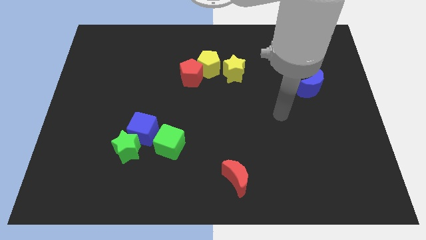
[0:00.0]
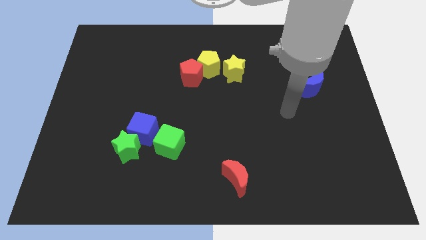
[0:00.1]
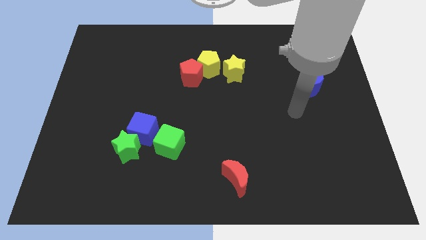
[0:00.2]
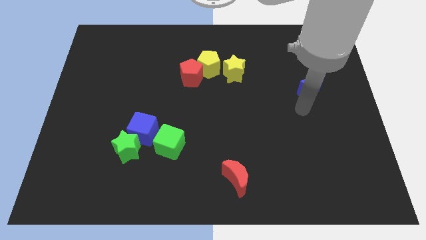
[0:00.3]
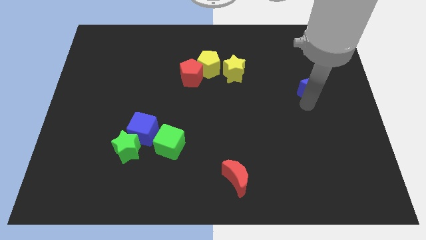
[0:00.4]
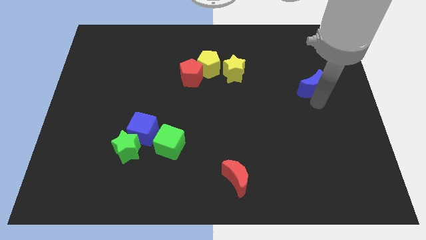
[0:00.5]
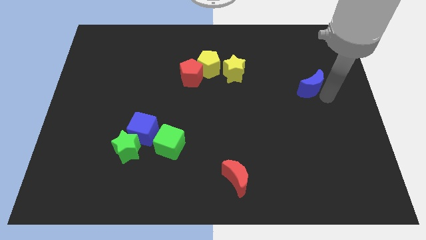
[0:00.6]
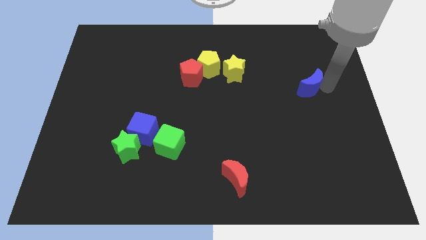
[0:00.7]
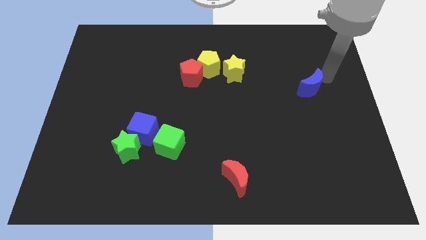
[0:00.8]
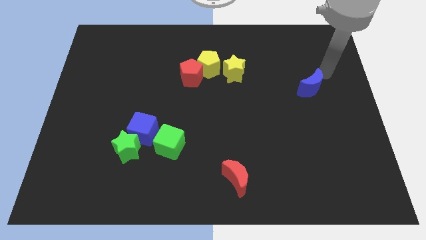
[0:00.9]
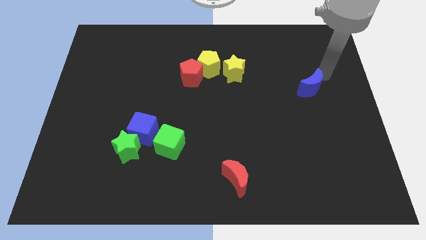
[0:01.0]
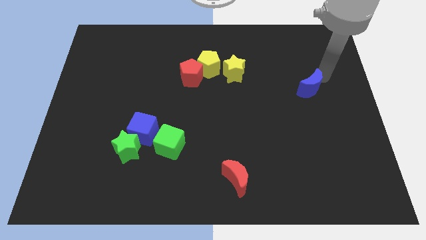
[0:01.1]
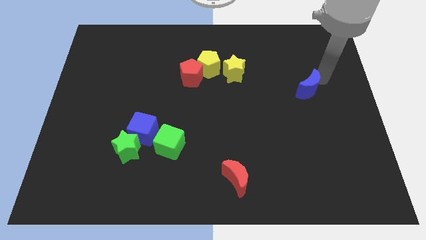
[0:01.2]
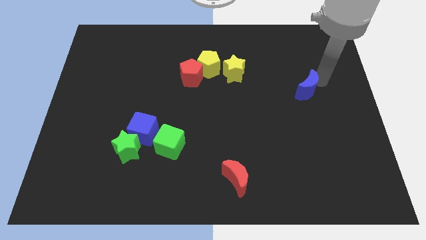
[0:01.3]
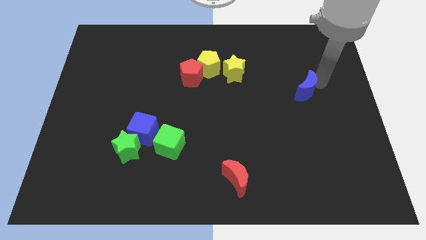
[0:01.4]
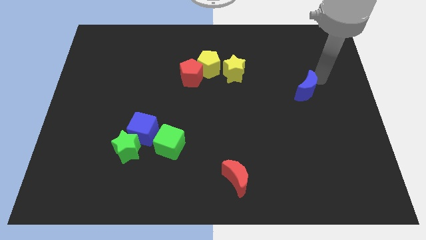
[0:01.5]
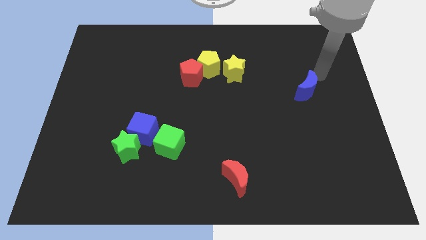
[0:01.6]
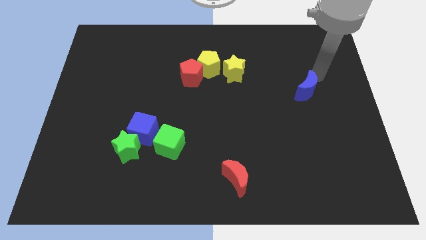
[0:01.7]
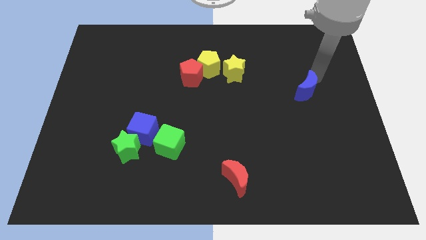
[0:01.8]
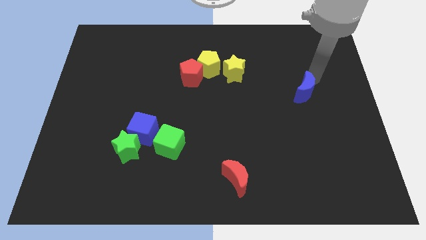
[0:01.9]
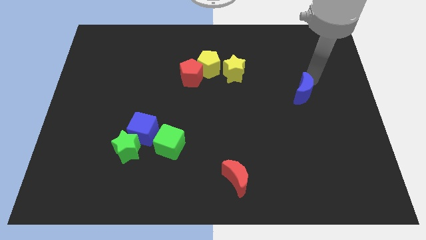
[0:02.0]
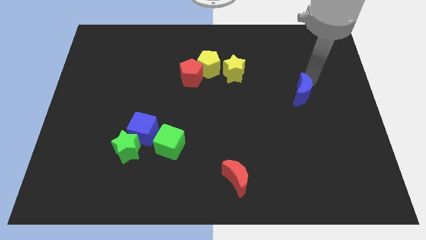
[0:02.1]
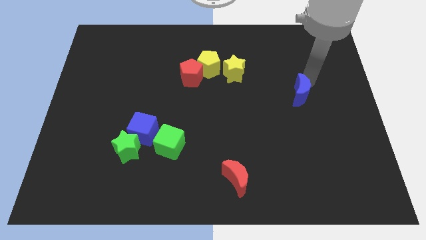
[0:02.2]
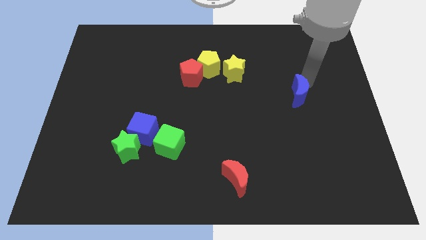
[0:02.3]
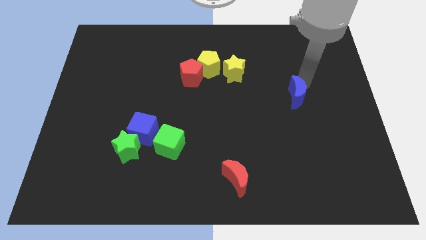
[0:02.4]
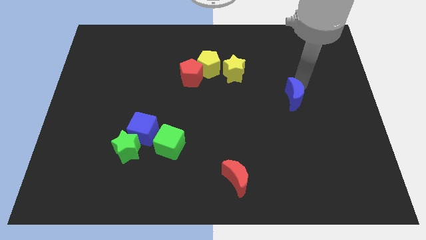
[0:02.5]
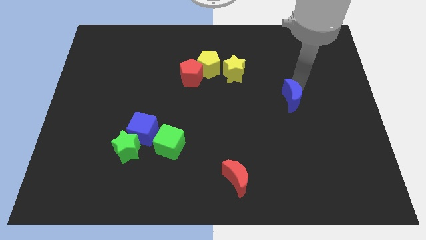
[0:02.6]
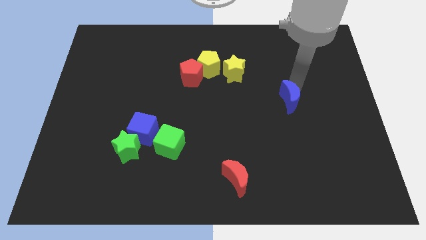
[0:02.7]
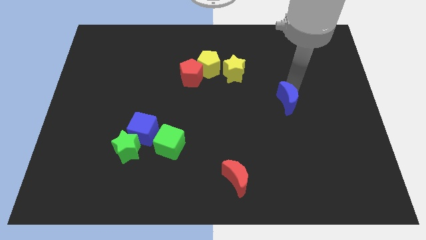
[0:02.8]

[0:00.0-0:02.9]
push the blue moon down and left a bit

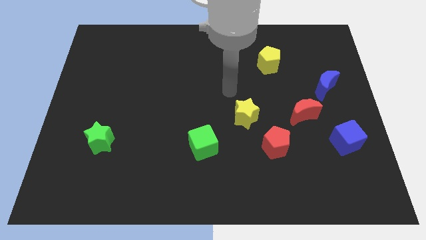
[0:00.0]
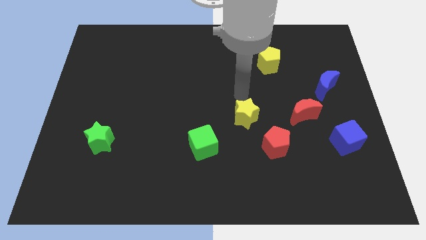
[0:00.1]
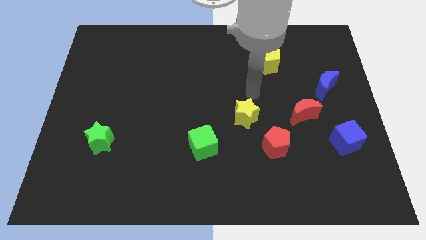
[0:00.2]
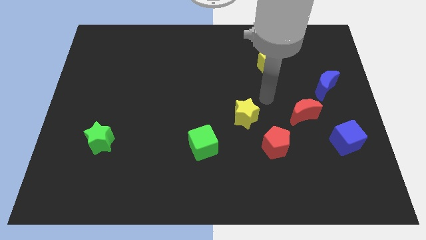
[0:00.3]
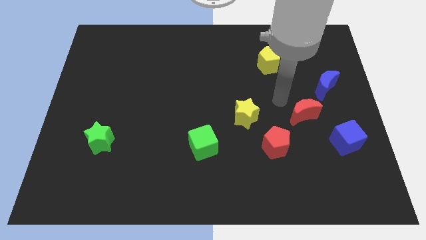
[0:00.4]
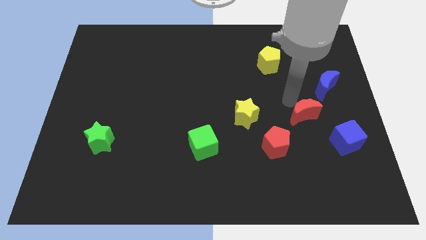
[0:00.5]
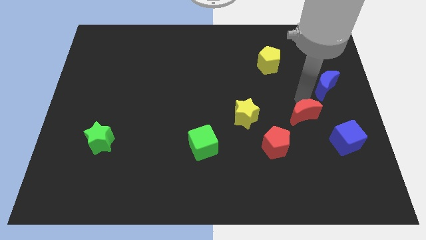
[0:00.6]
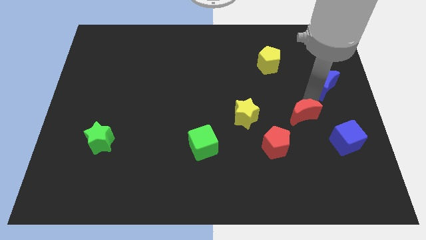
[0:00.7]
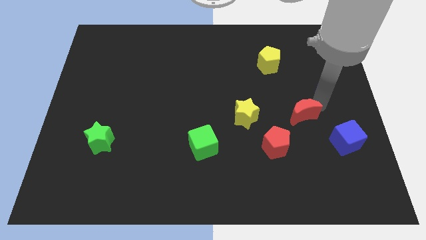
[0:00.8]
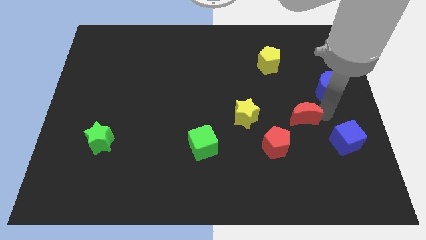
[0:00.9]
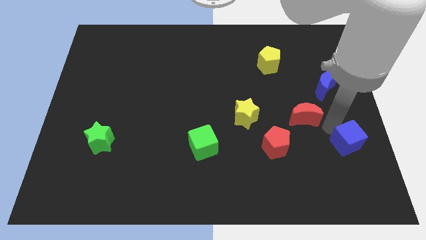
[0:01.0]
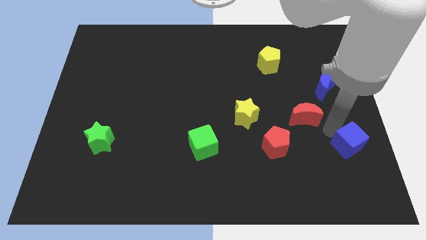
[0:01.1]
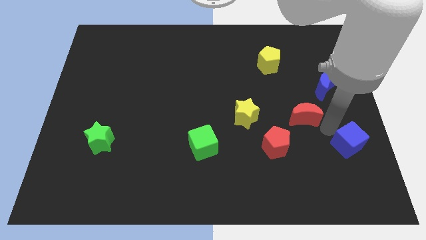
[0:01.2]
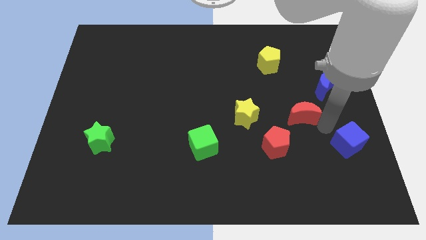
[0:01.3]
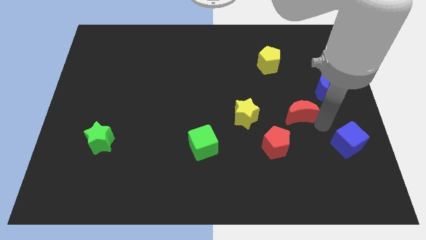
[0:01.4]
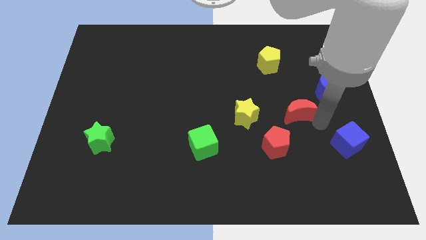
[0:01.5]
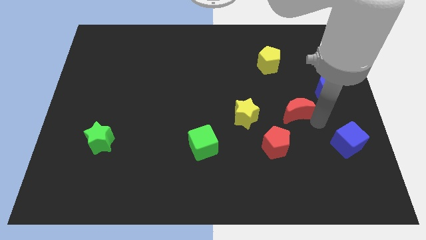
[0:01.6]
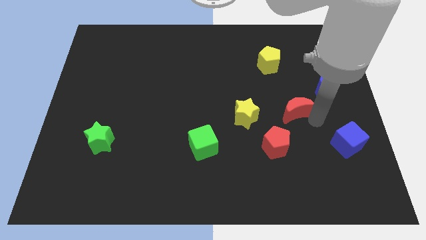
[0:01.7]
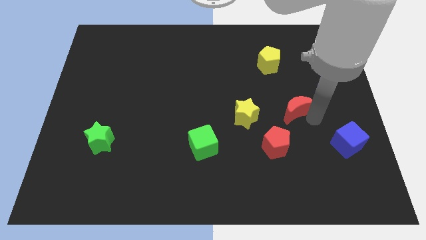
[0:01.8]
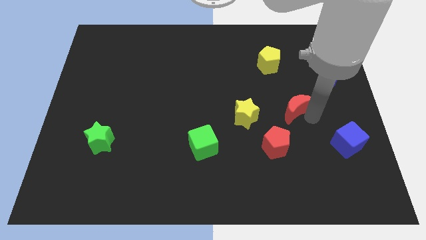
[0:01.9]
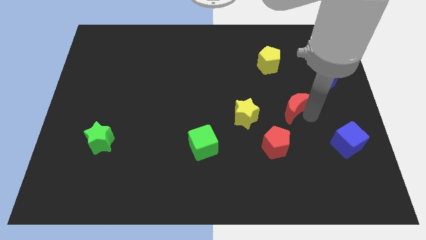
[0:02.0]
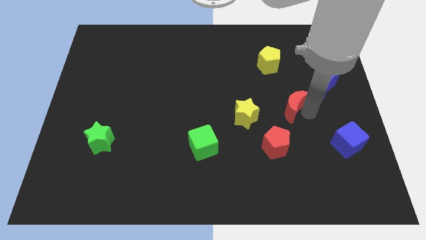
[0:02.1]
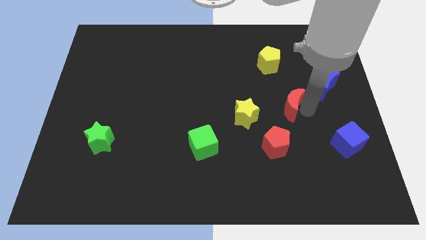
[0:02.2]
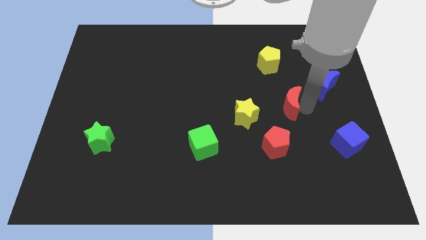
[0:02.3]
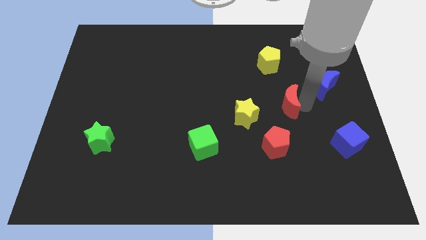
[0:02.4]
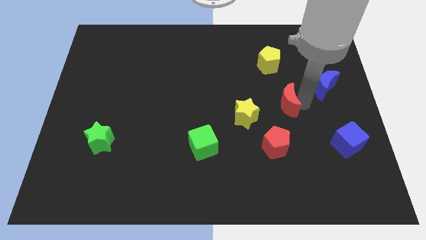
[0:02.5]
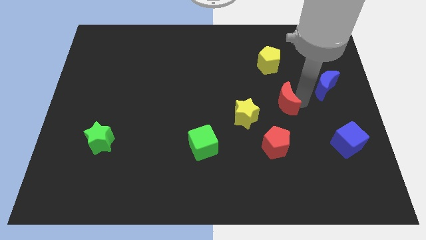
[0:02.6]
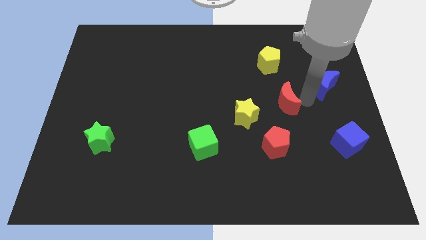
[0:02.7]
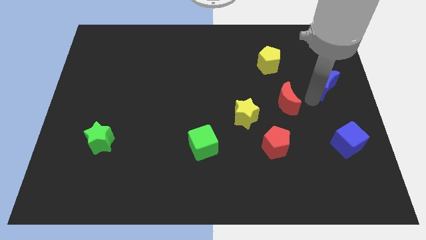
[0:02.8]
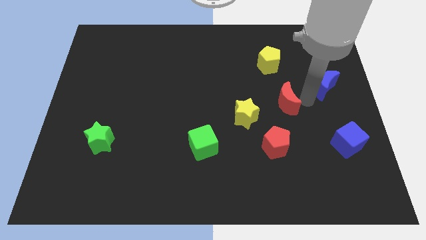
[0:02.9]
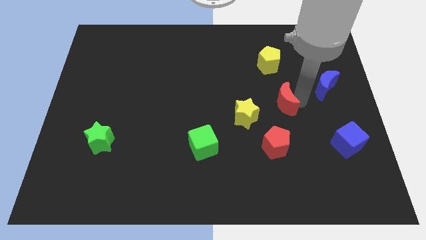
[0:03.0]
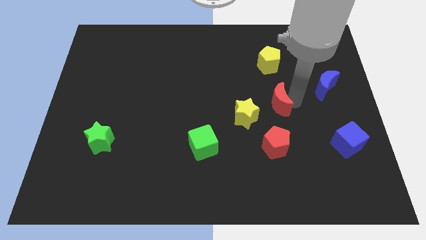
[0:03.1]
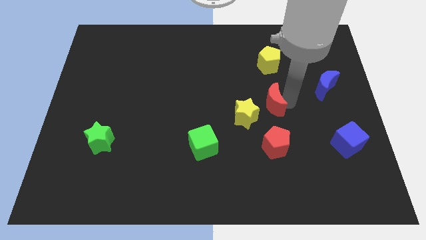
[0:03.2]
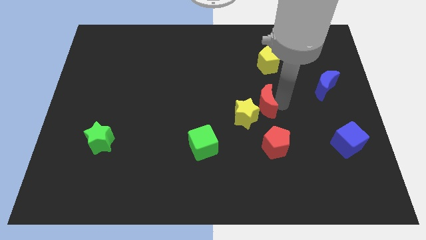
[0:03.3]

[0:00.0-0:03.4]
push the red moon a bit left

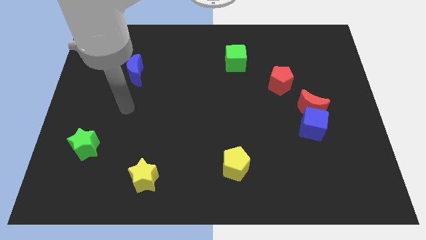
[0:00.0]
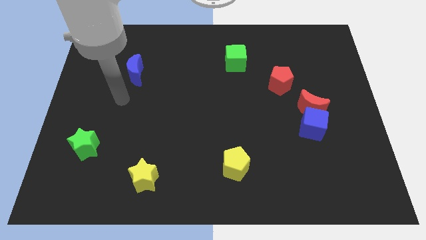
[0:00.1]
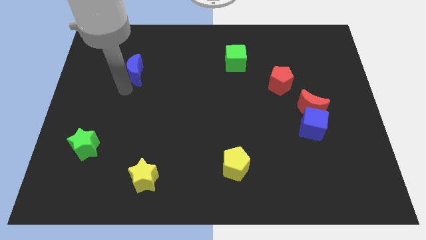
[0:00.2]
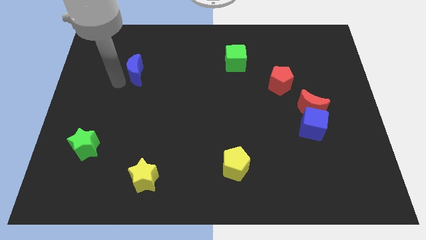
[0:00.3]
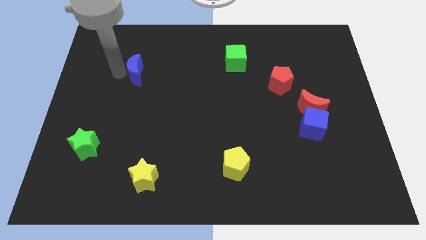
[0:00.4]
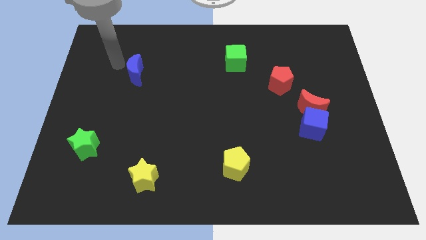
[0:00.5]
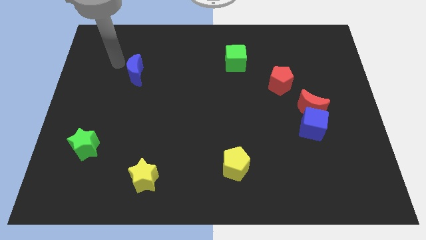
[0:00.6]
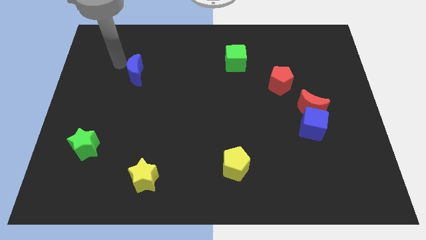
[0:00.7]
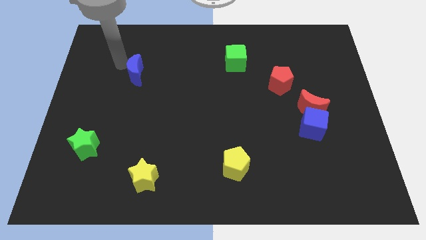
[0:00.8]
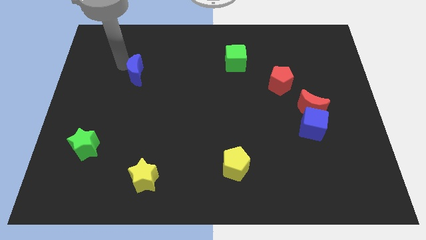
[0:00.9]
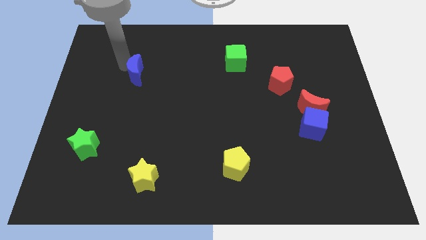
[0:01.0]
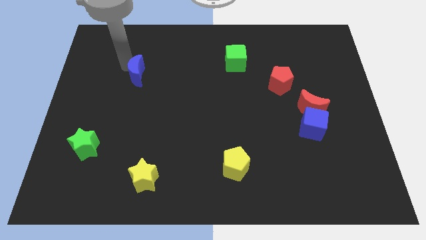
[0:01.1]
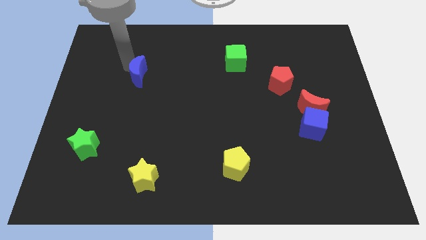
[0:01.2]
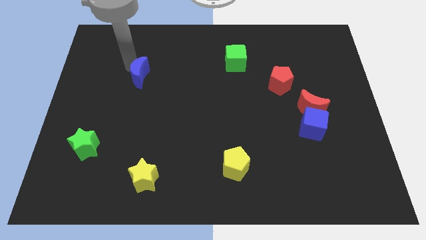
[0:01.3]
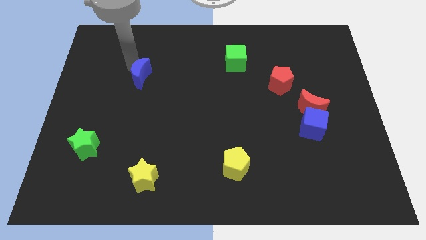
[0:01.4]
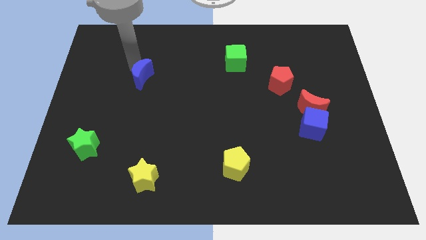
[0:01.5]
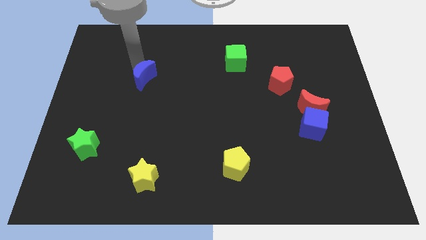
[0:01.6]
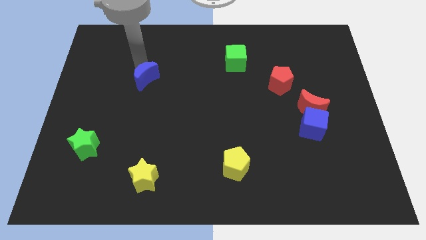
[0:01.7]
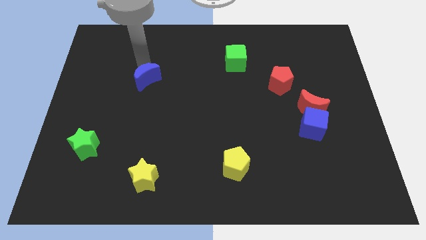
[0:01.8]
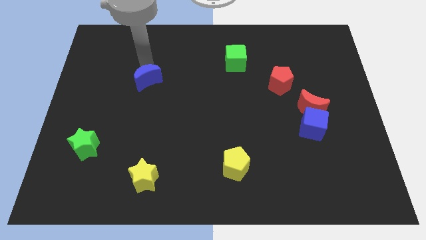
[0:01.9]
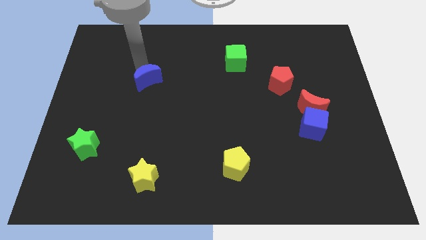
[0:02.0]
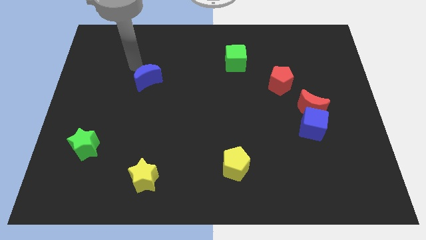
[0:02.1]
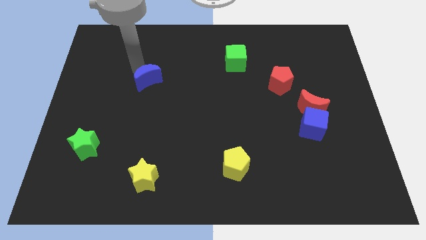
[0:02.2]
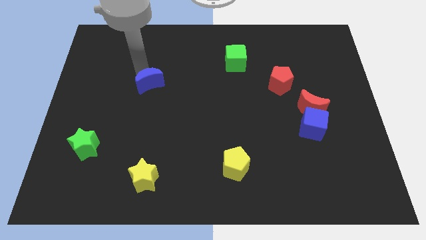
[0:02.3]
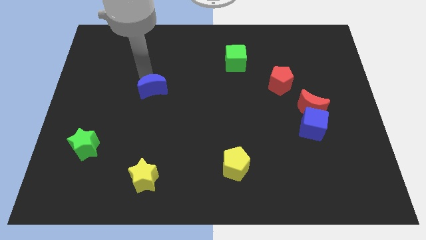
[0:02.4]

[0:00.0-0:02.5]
slightly slide the blue moon down and to the right
